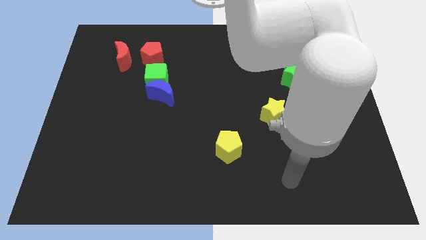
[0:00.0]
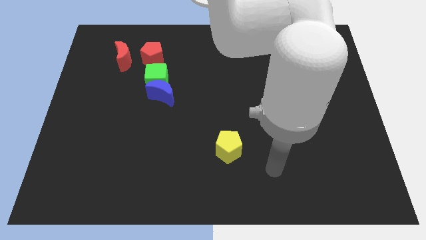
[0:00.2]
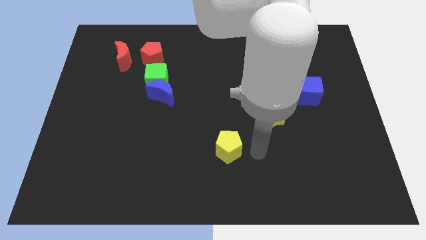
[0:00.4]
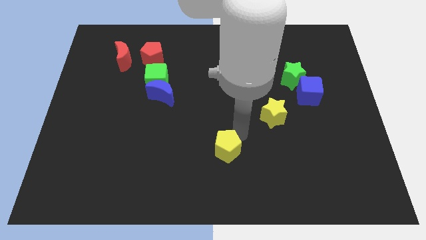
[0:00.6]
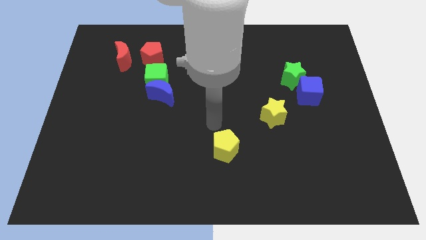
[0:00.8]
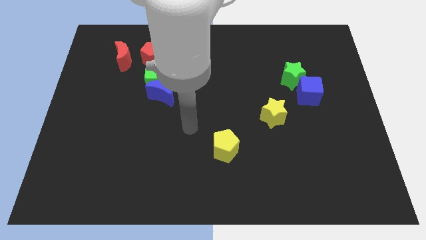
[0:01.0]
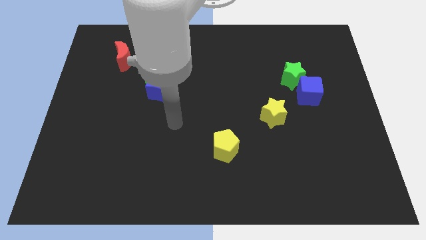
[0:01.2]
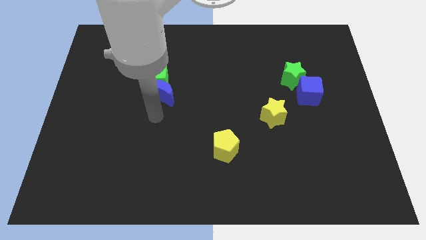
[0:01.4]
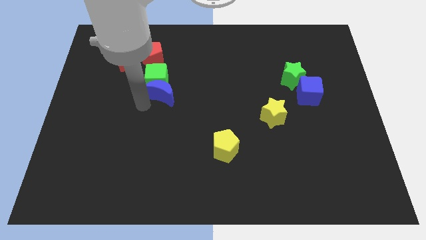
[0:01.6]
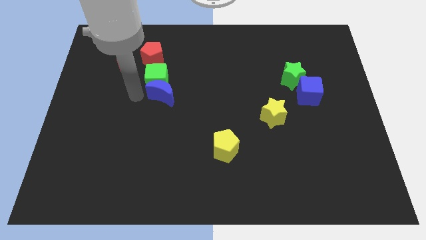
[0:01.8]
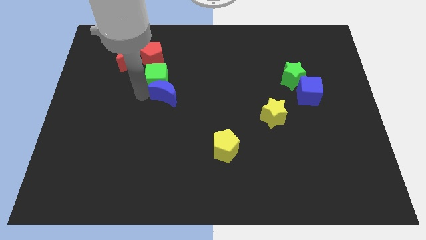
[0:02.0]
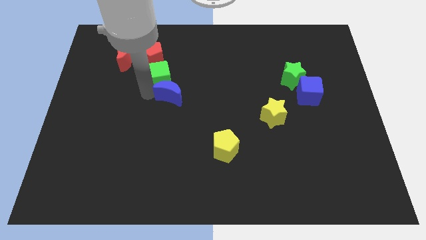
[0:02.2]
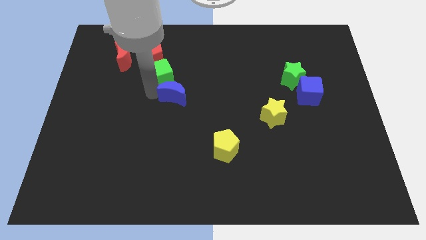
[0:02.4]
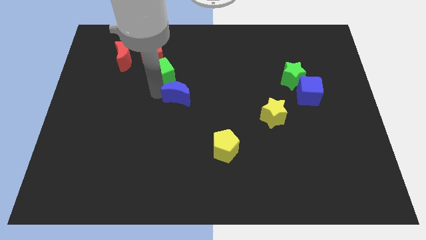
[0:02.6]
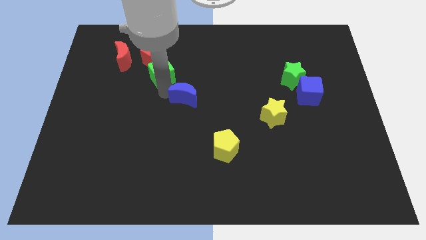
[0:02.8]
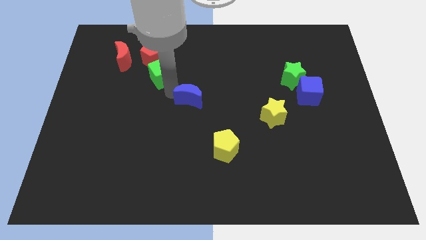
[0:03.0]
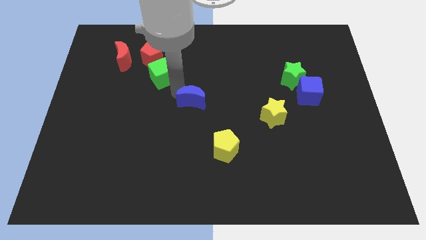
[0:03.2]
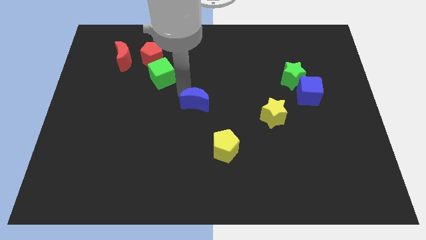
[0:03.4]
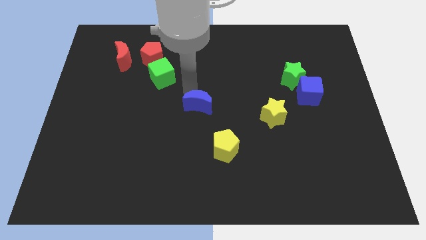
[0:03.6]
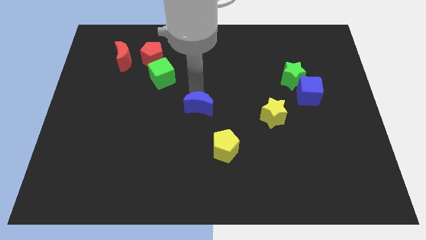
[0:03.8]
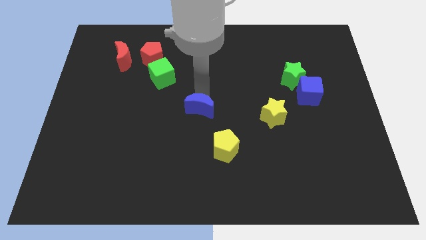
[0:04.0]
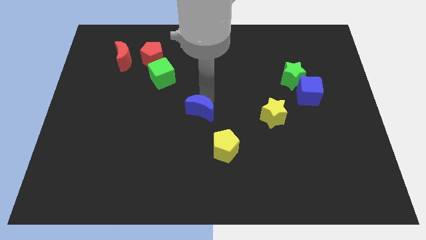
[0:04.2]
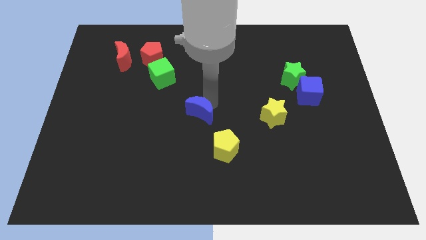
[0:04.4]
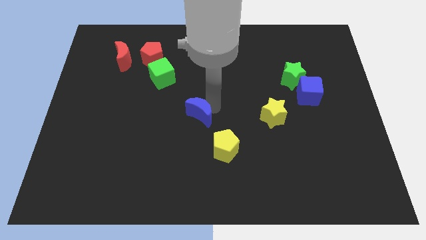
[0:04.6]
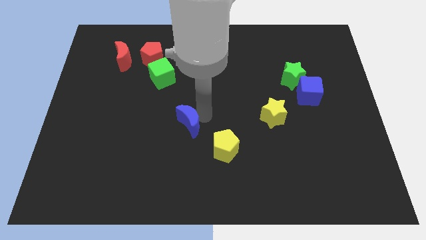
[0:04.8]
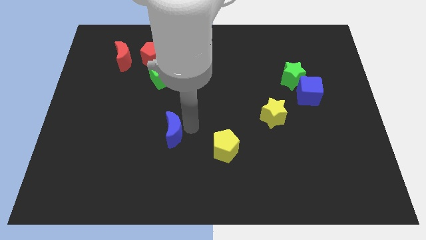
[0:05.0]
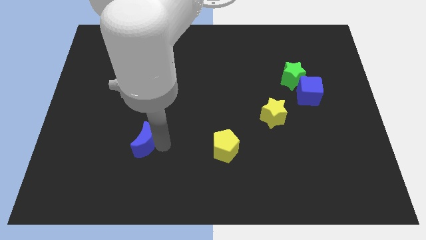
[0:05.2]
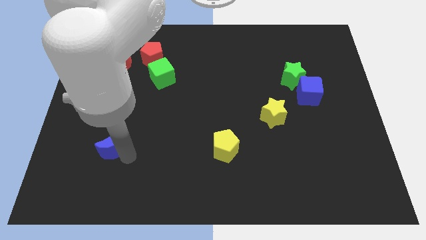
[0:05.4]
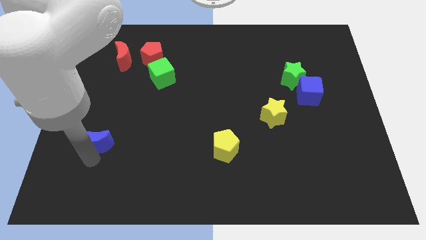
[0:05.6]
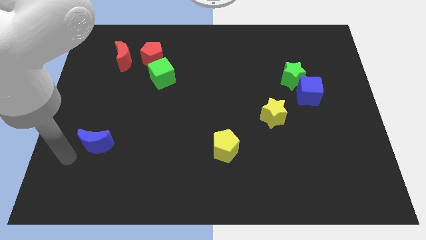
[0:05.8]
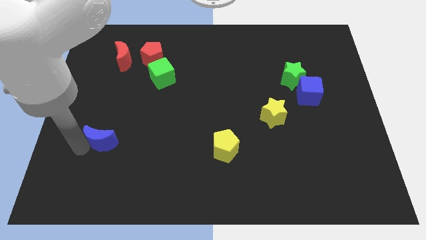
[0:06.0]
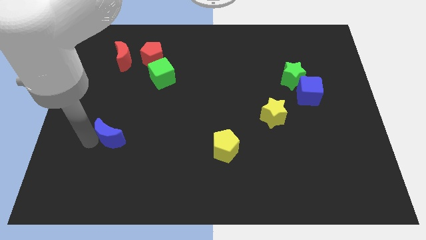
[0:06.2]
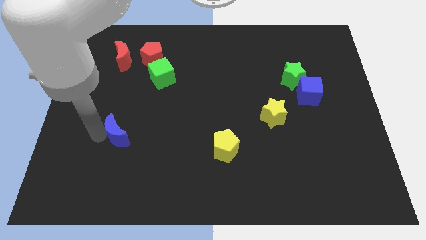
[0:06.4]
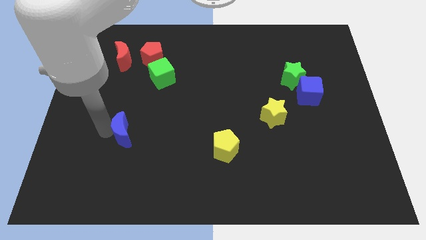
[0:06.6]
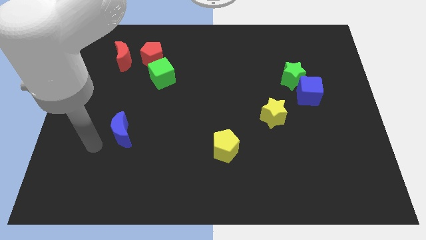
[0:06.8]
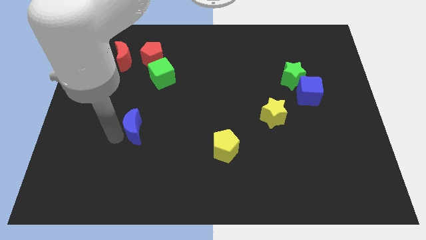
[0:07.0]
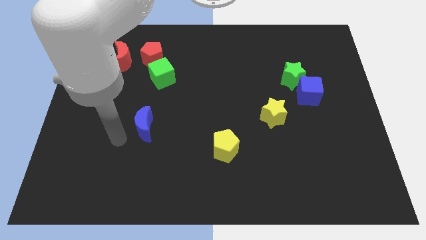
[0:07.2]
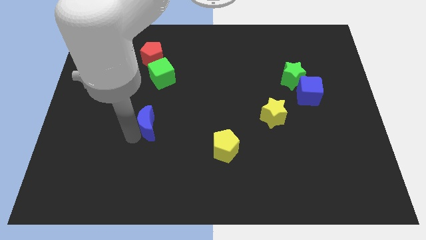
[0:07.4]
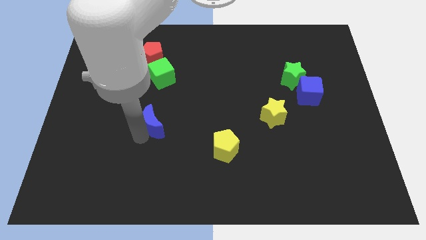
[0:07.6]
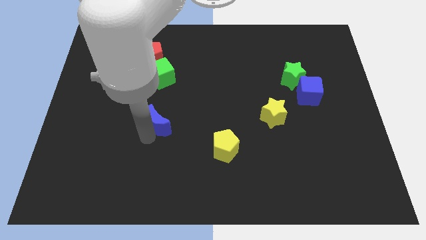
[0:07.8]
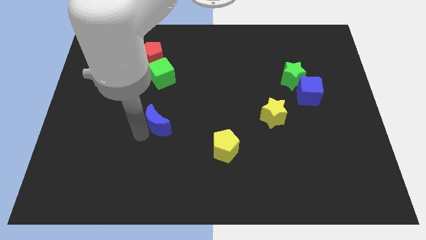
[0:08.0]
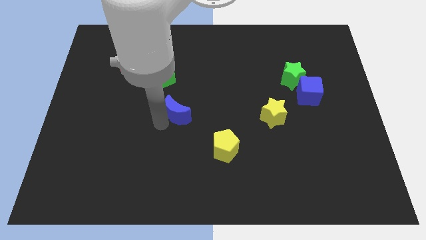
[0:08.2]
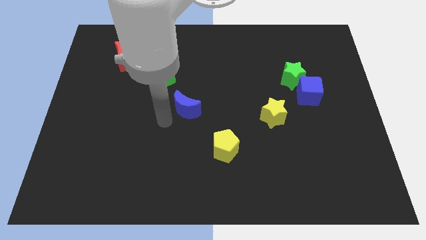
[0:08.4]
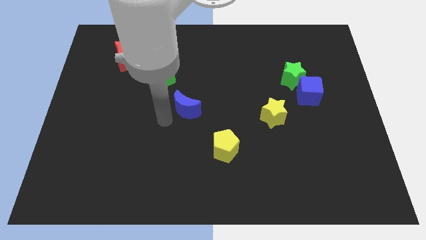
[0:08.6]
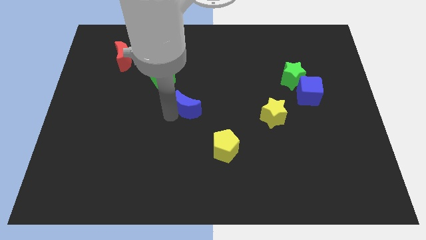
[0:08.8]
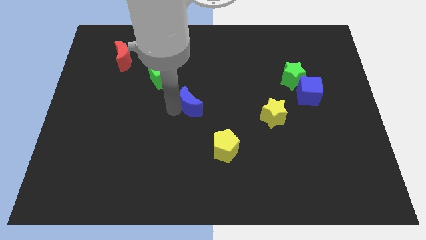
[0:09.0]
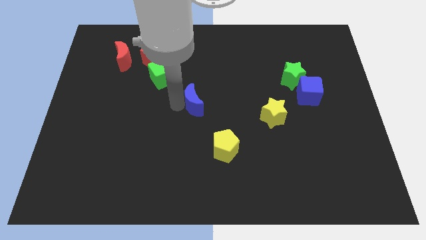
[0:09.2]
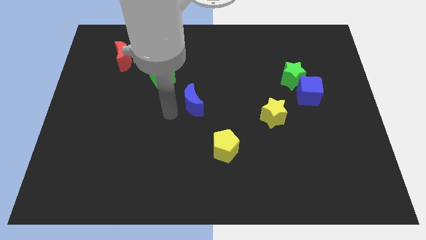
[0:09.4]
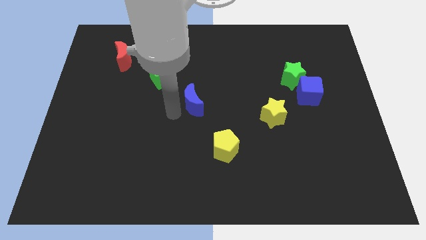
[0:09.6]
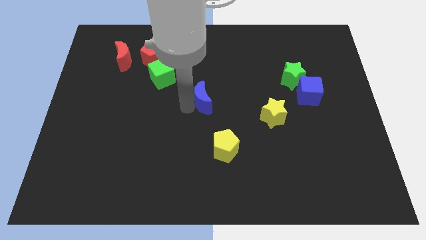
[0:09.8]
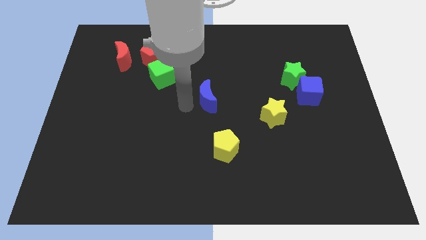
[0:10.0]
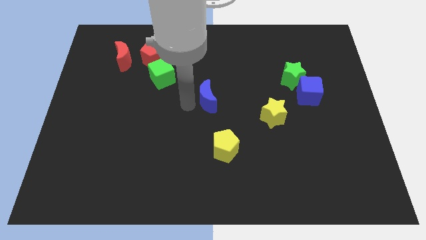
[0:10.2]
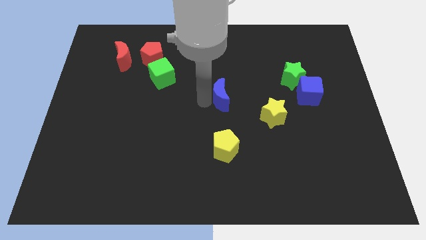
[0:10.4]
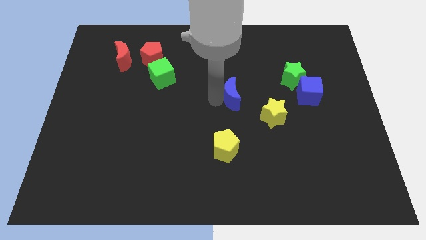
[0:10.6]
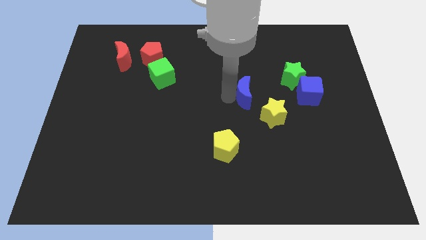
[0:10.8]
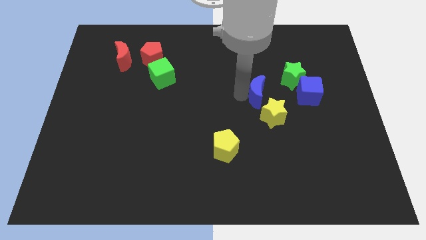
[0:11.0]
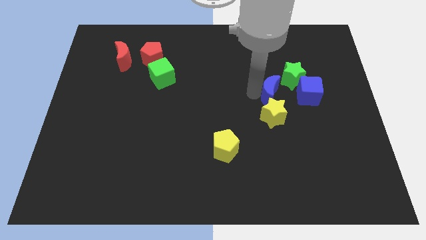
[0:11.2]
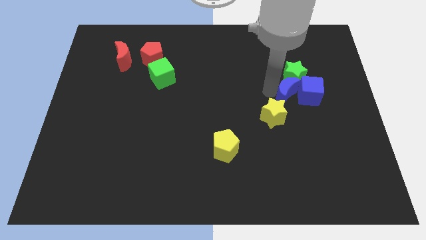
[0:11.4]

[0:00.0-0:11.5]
put the blue moon close to the blue cube
